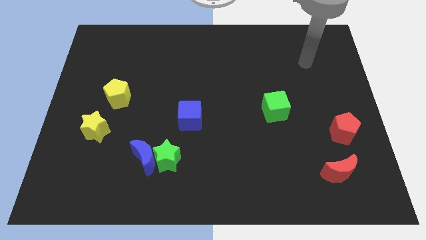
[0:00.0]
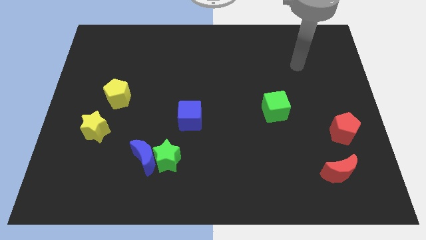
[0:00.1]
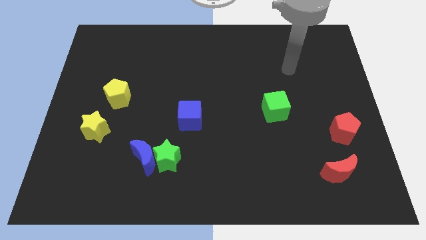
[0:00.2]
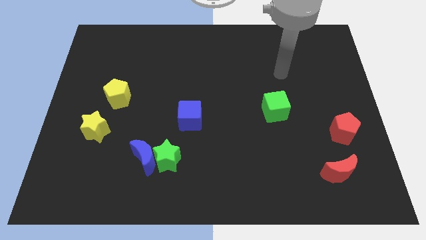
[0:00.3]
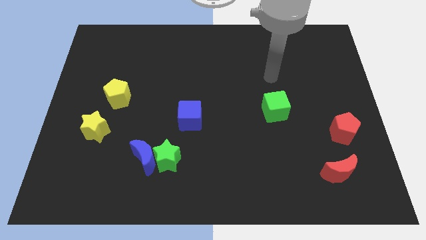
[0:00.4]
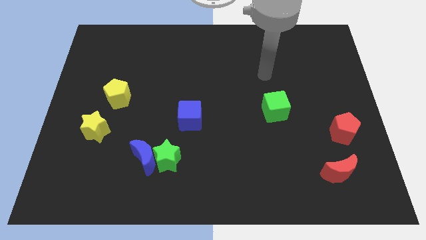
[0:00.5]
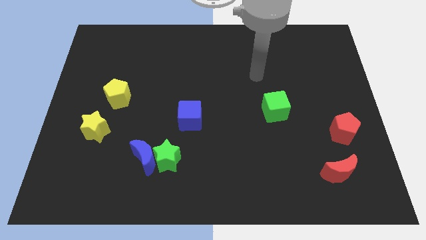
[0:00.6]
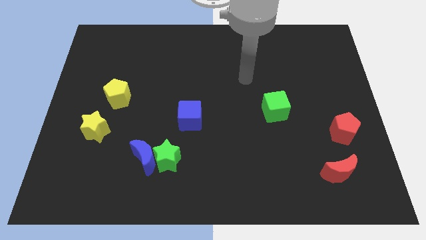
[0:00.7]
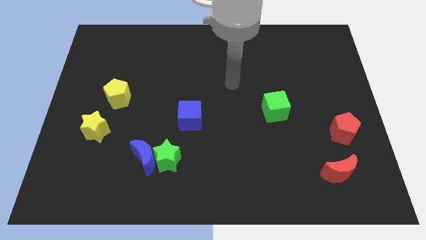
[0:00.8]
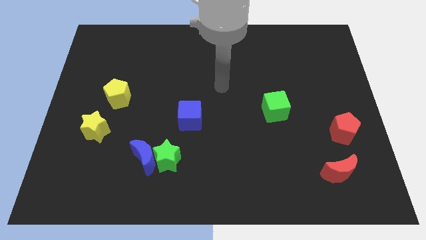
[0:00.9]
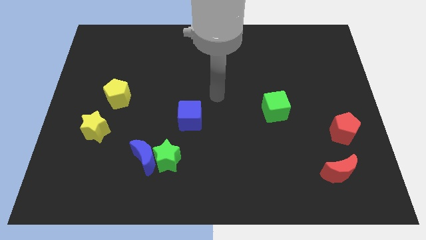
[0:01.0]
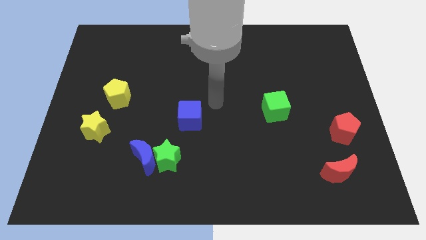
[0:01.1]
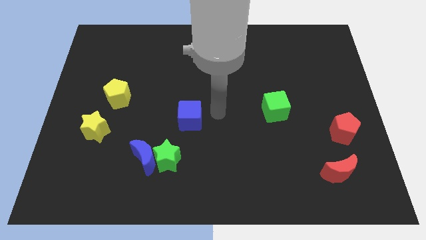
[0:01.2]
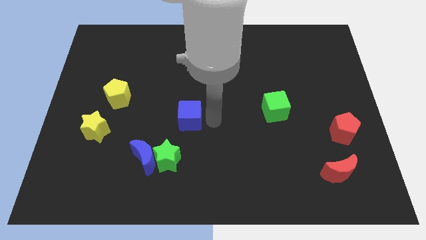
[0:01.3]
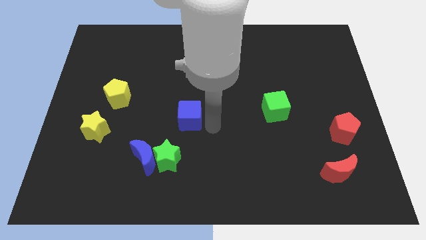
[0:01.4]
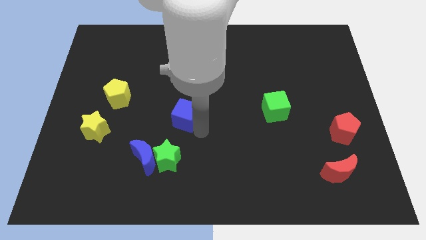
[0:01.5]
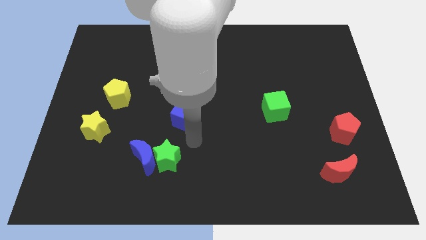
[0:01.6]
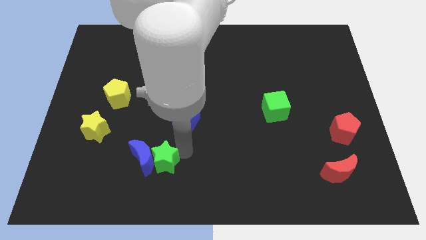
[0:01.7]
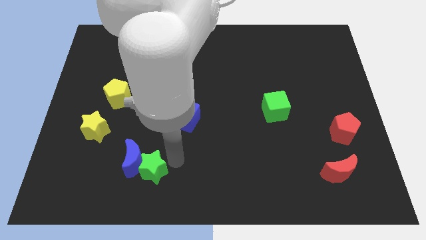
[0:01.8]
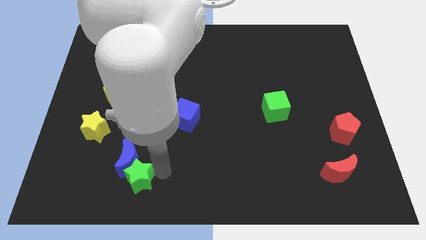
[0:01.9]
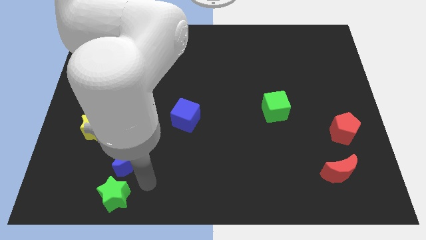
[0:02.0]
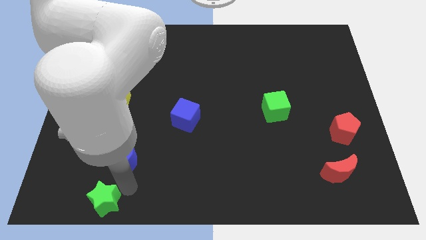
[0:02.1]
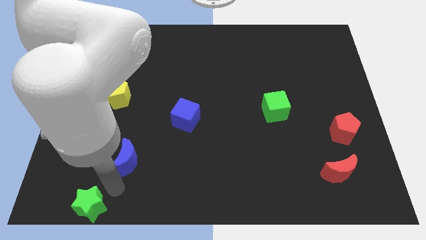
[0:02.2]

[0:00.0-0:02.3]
move the blue moon away from the green star

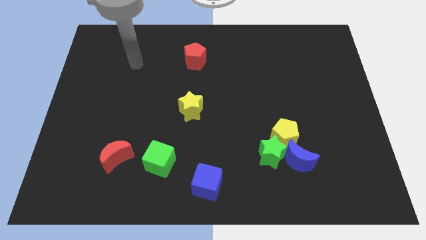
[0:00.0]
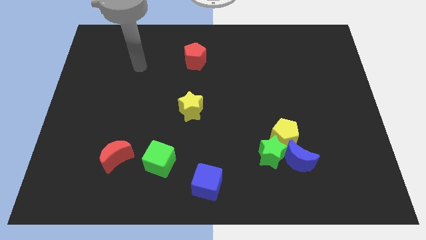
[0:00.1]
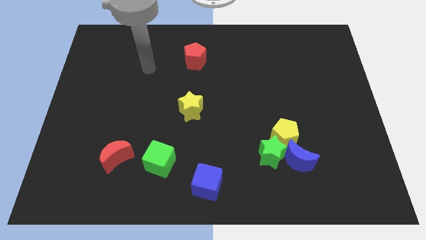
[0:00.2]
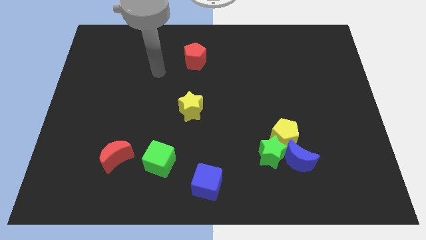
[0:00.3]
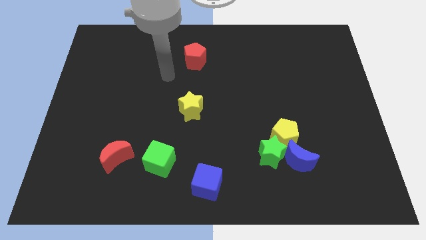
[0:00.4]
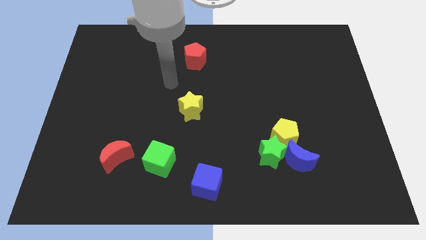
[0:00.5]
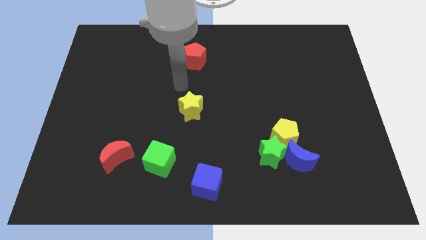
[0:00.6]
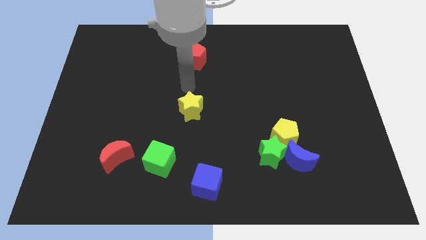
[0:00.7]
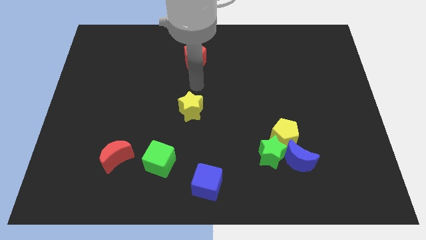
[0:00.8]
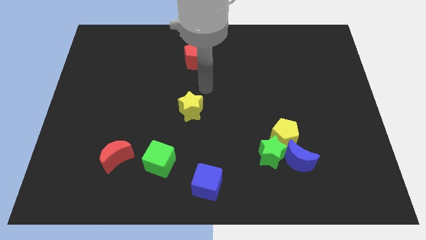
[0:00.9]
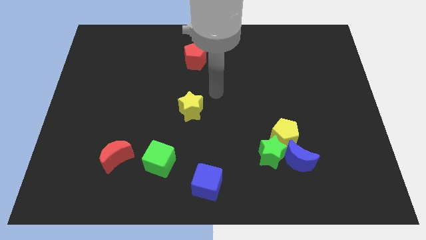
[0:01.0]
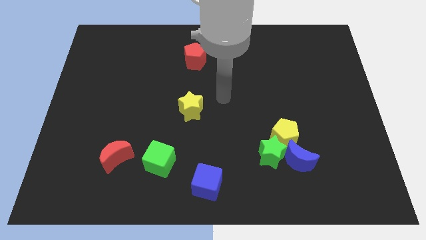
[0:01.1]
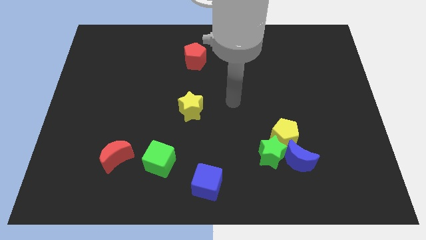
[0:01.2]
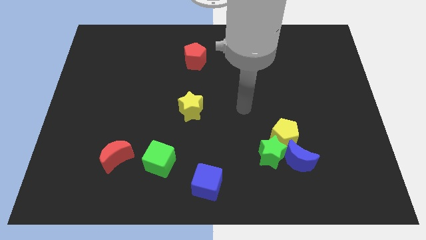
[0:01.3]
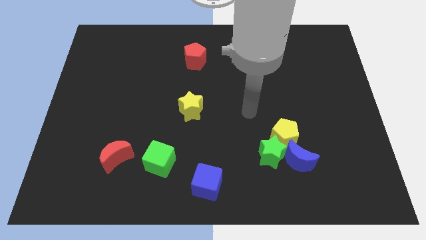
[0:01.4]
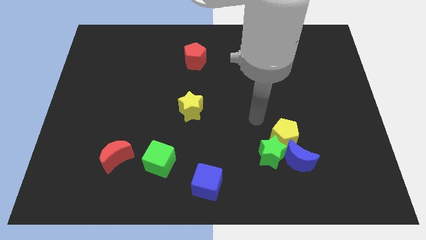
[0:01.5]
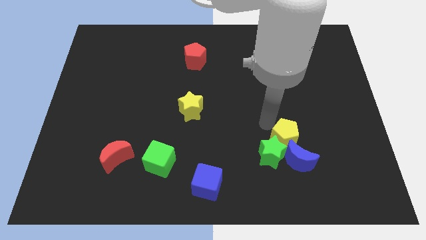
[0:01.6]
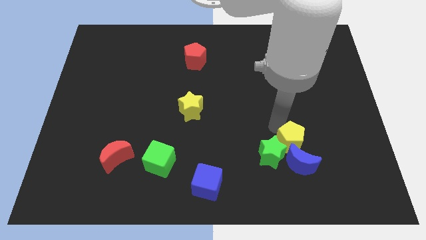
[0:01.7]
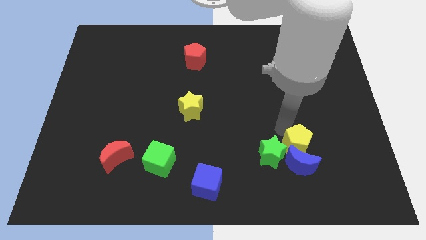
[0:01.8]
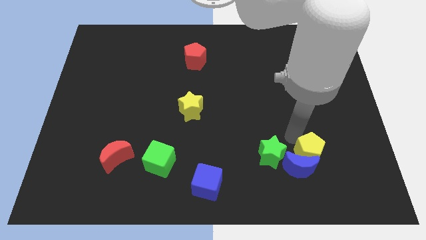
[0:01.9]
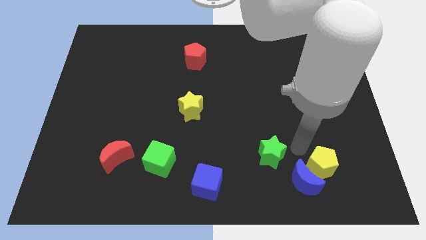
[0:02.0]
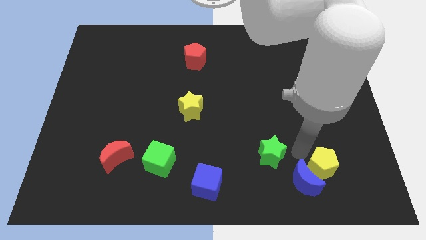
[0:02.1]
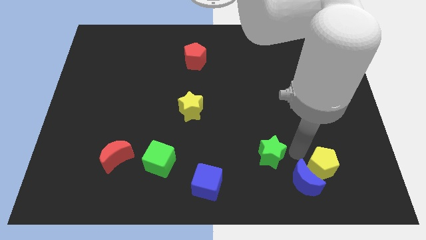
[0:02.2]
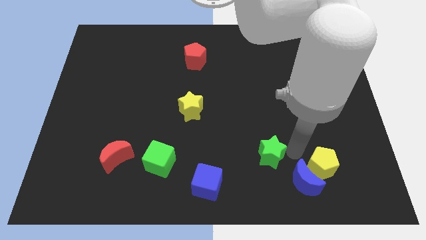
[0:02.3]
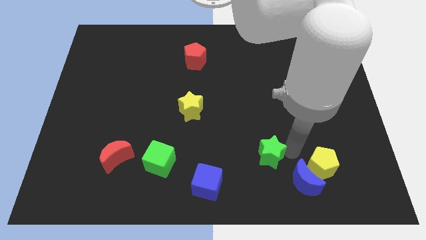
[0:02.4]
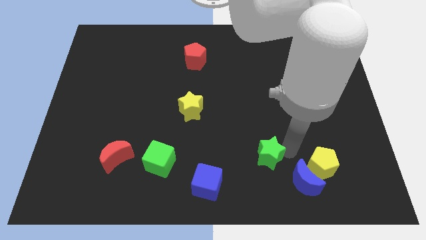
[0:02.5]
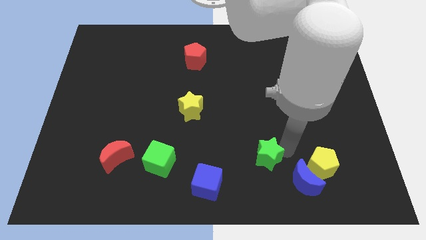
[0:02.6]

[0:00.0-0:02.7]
pull the green star apart from the yellow pentagon and blue moon

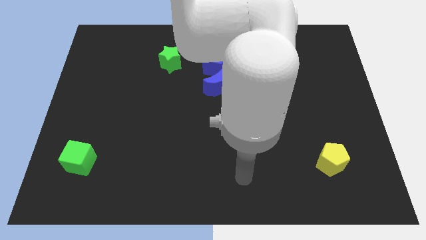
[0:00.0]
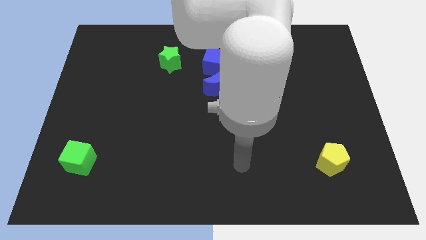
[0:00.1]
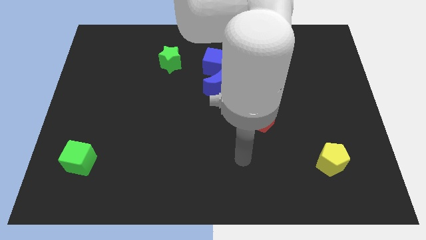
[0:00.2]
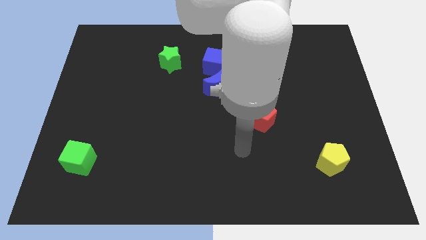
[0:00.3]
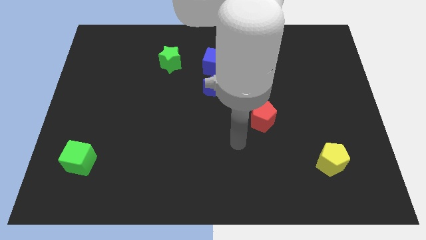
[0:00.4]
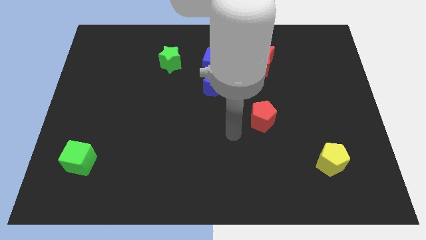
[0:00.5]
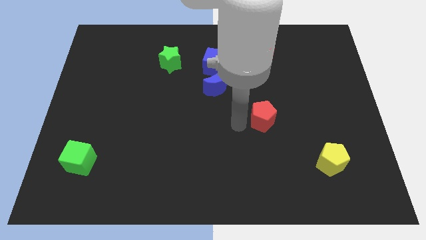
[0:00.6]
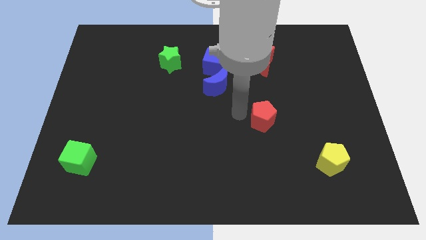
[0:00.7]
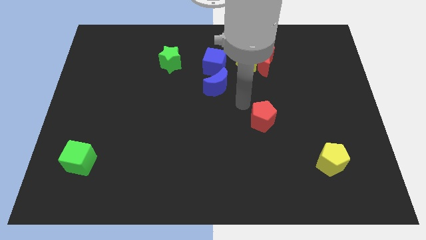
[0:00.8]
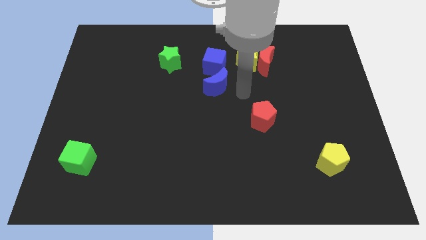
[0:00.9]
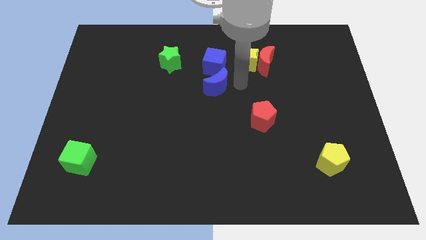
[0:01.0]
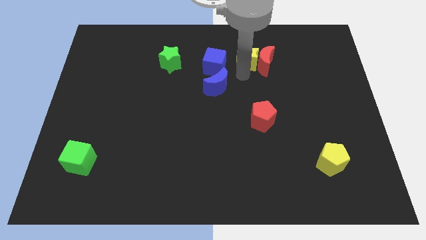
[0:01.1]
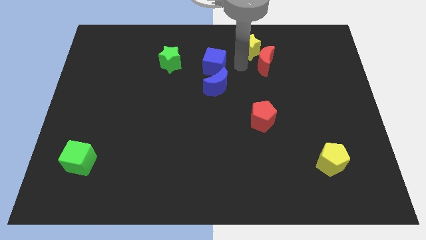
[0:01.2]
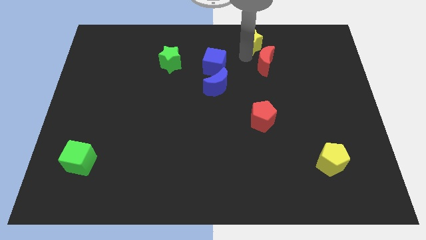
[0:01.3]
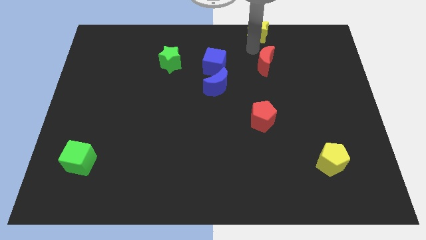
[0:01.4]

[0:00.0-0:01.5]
pull the red moon apart from the yellow star

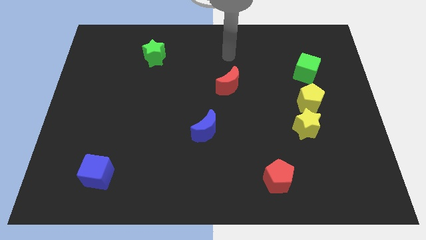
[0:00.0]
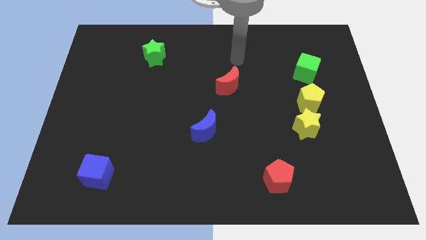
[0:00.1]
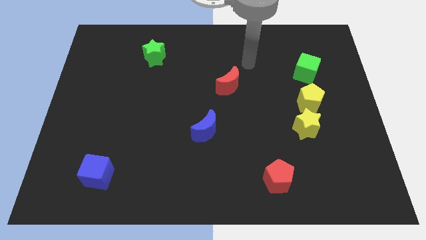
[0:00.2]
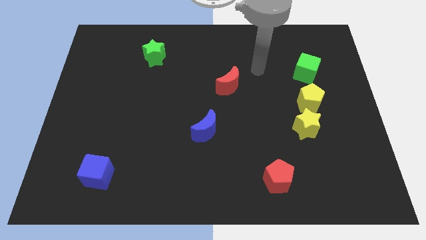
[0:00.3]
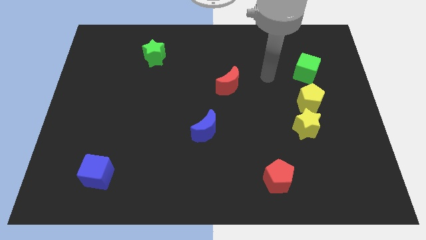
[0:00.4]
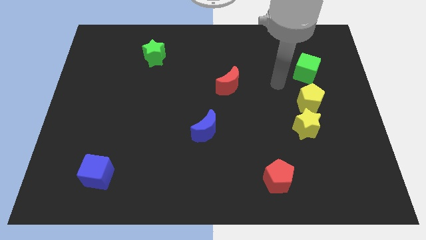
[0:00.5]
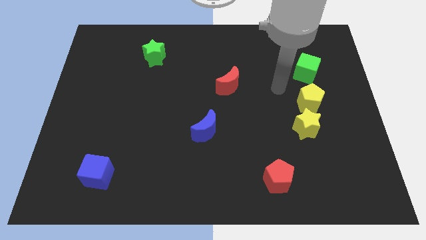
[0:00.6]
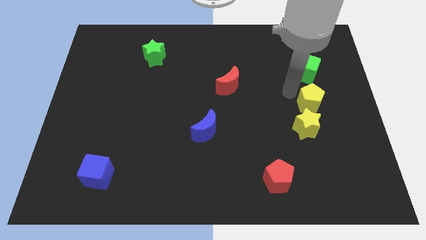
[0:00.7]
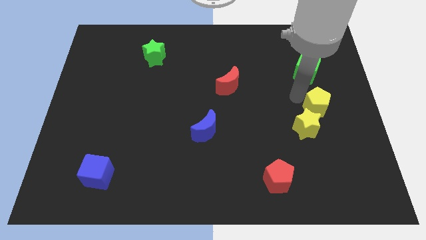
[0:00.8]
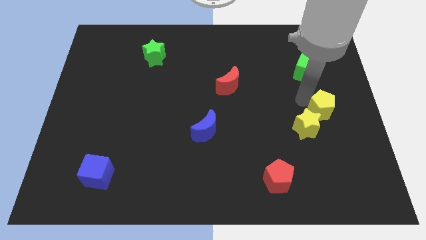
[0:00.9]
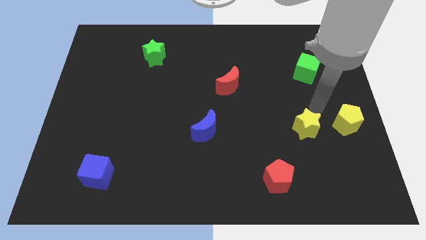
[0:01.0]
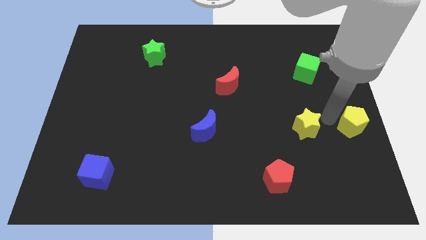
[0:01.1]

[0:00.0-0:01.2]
pull the yellow star apart from the yellow pentagon

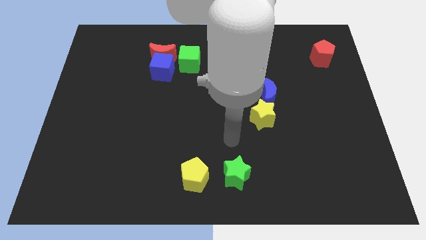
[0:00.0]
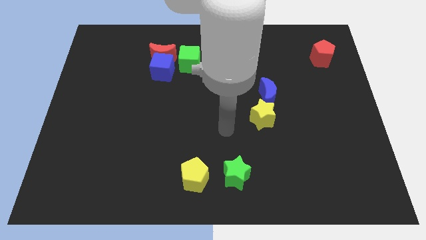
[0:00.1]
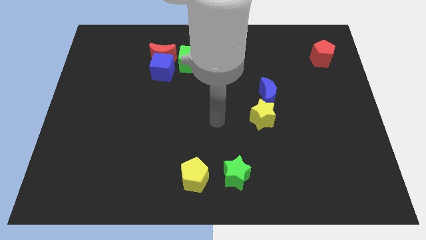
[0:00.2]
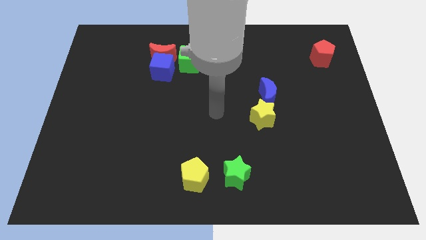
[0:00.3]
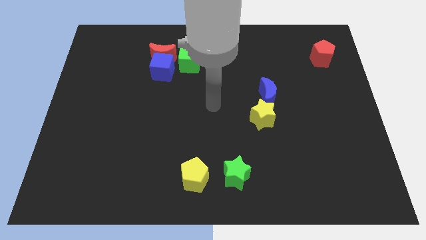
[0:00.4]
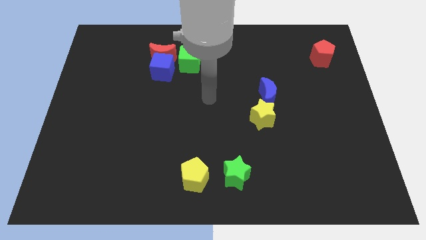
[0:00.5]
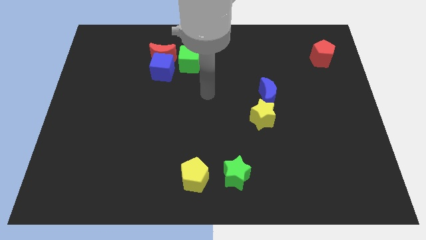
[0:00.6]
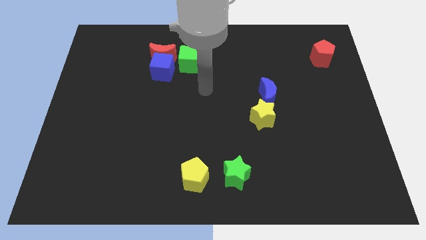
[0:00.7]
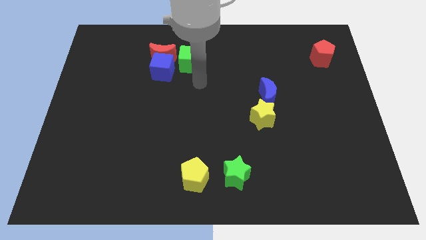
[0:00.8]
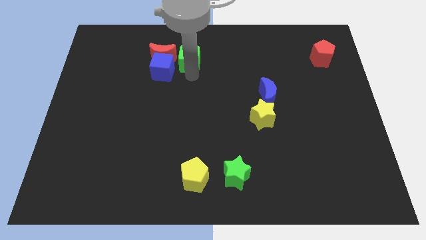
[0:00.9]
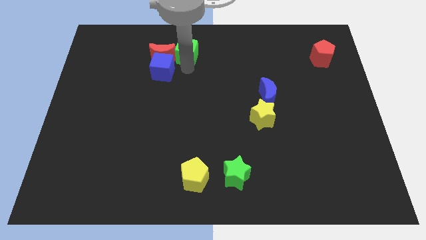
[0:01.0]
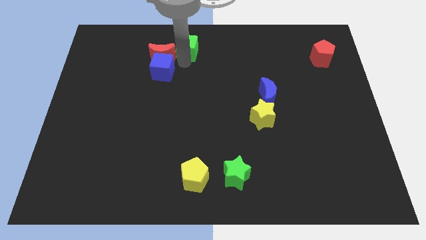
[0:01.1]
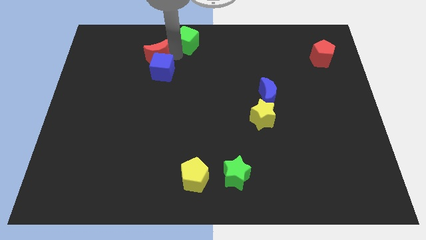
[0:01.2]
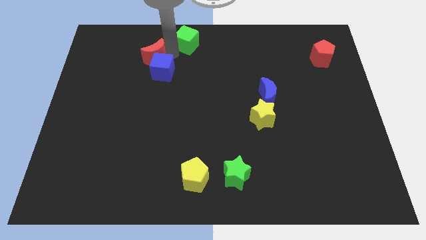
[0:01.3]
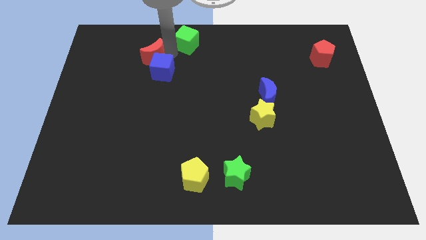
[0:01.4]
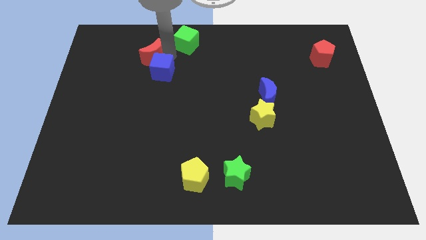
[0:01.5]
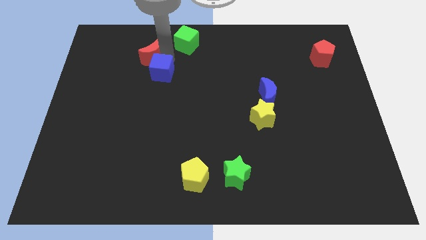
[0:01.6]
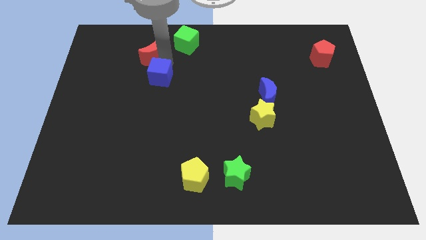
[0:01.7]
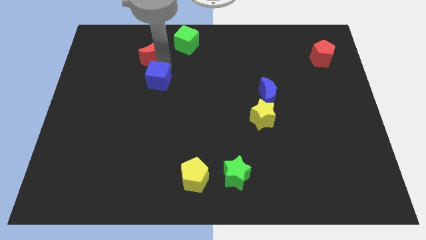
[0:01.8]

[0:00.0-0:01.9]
separate the blue cube from the red moon and green cube
